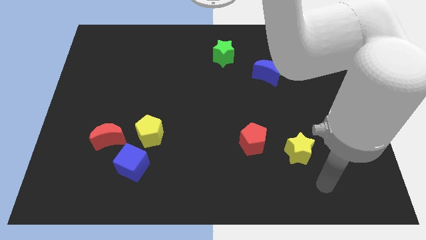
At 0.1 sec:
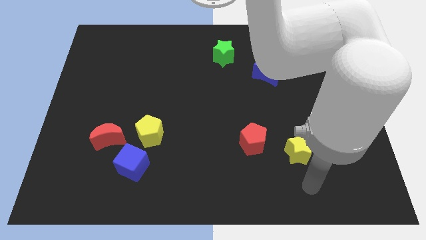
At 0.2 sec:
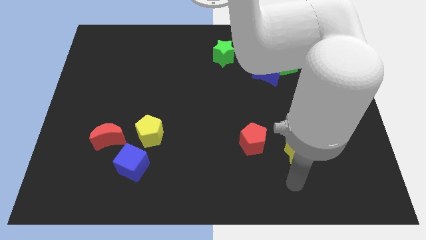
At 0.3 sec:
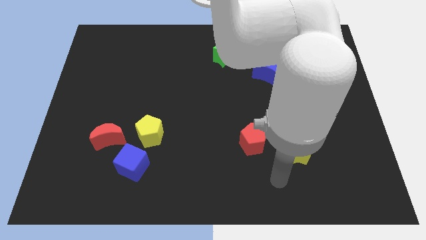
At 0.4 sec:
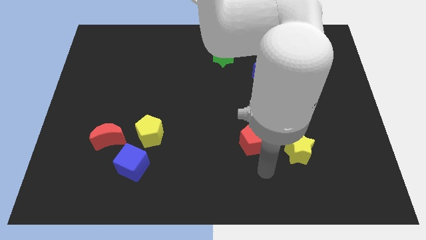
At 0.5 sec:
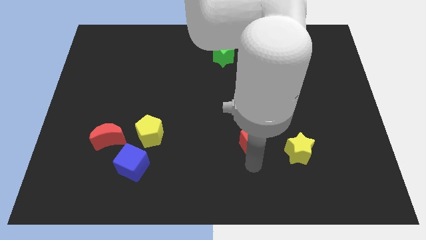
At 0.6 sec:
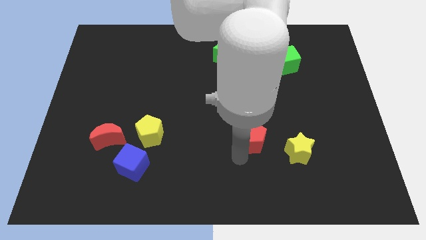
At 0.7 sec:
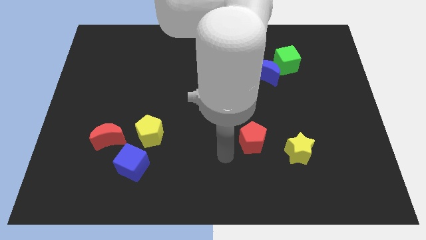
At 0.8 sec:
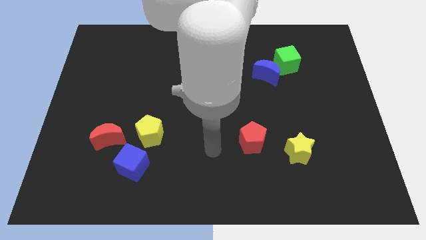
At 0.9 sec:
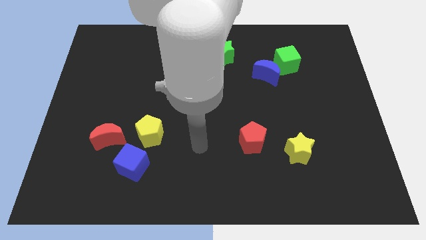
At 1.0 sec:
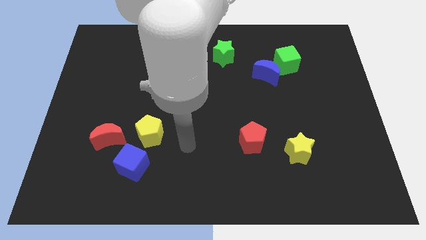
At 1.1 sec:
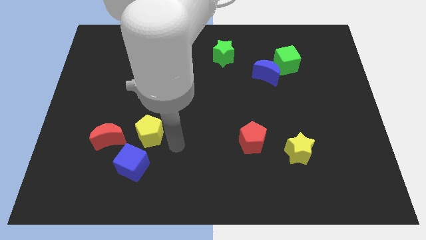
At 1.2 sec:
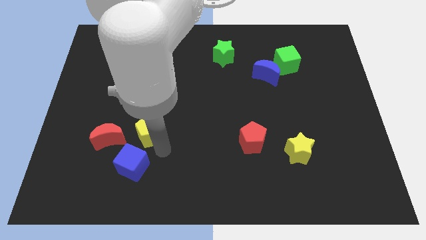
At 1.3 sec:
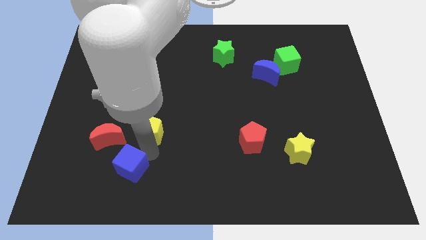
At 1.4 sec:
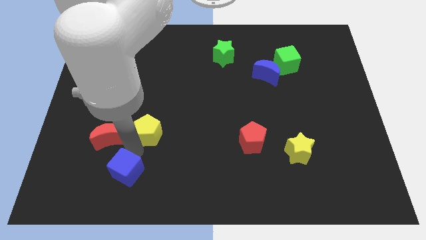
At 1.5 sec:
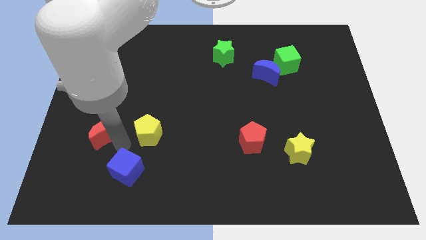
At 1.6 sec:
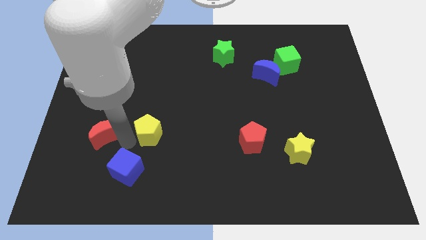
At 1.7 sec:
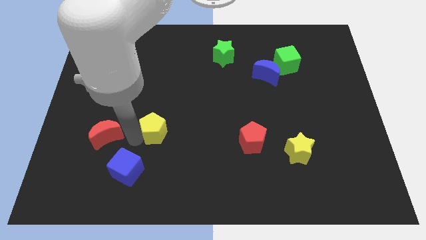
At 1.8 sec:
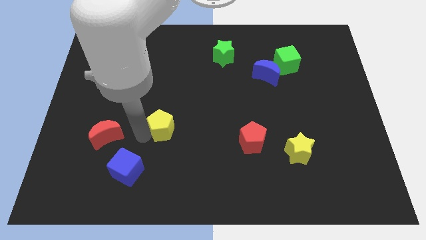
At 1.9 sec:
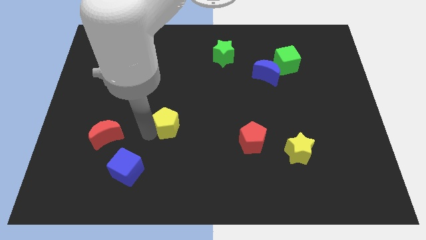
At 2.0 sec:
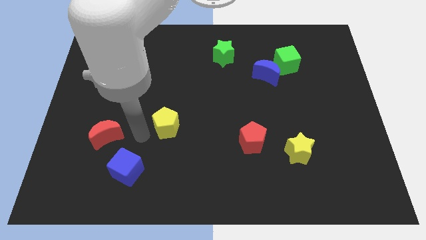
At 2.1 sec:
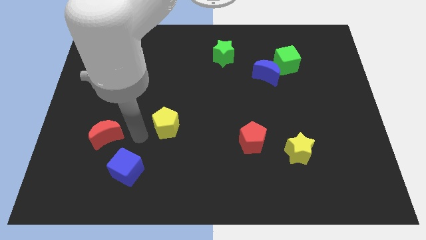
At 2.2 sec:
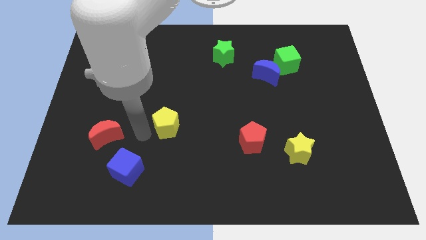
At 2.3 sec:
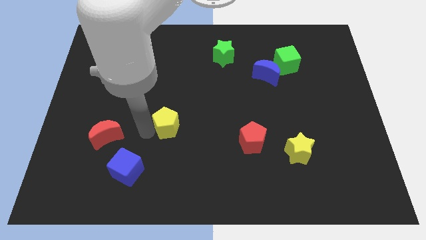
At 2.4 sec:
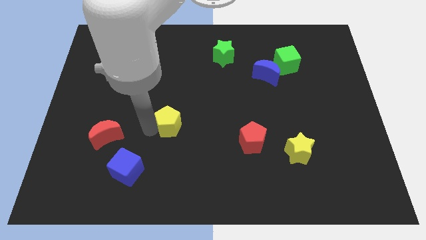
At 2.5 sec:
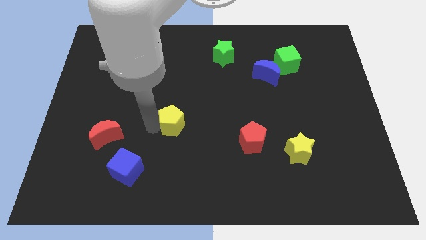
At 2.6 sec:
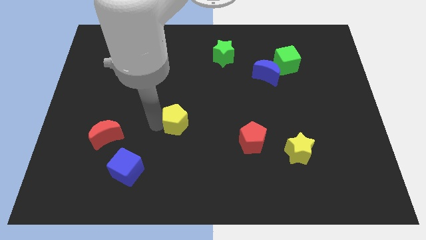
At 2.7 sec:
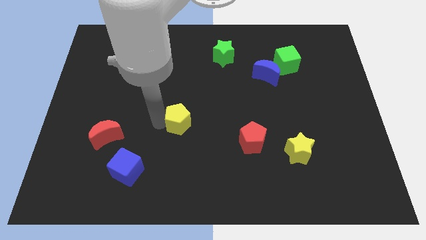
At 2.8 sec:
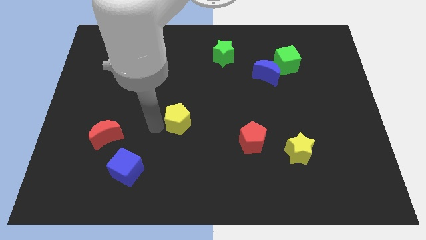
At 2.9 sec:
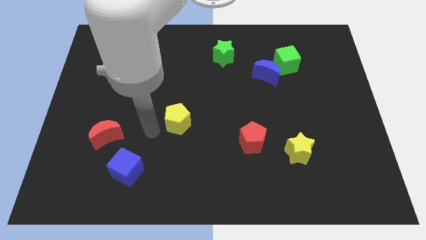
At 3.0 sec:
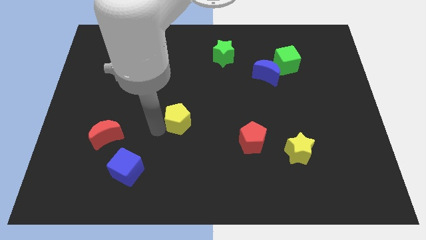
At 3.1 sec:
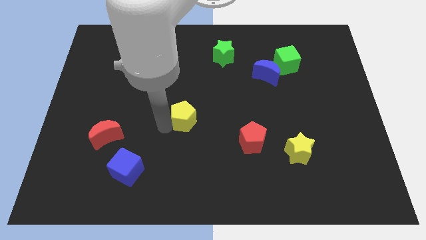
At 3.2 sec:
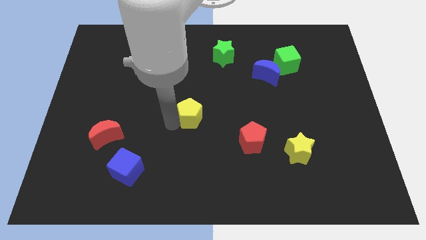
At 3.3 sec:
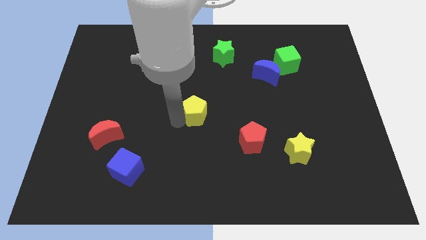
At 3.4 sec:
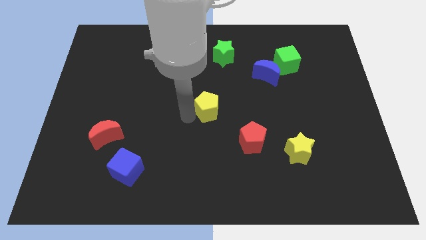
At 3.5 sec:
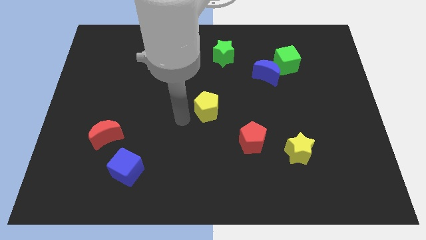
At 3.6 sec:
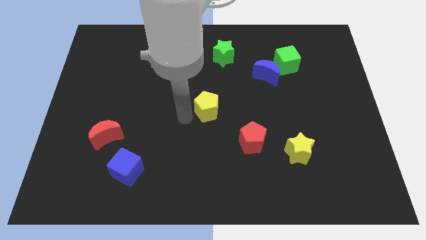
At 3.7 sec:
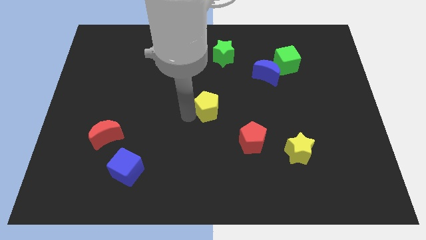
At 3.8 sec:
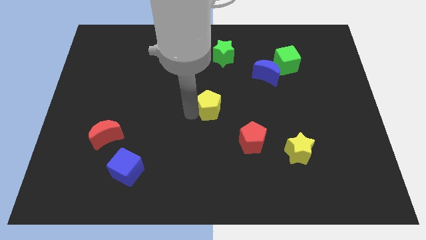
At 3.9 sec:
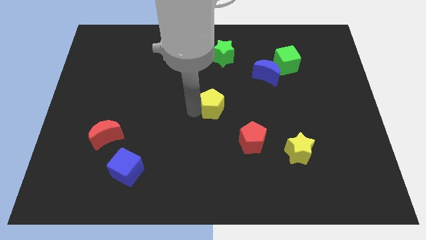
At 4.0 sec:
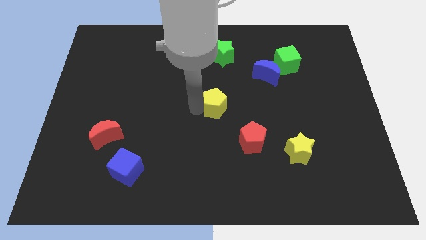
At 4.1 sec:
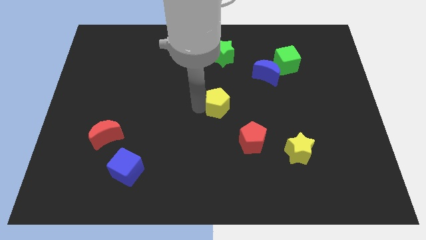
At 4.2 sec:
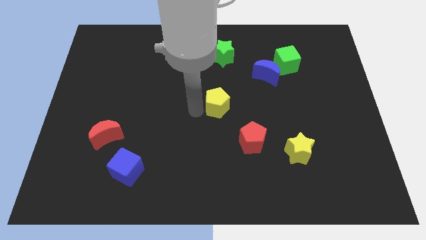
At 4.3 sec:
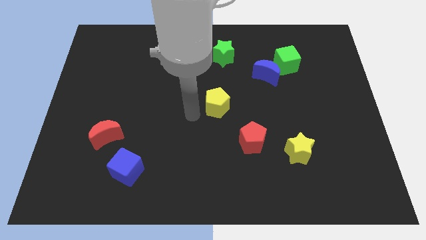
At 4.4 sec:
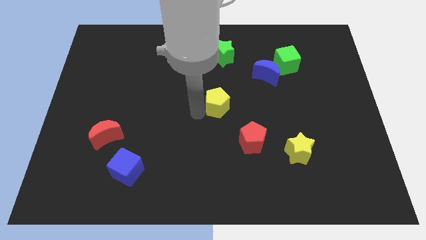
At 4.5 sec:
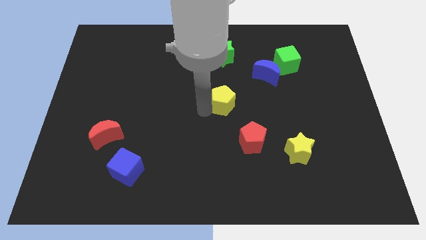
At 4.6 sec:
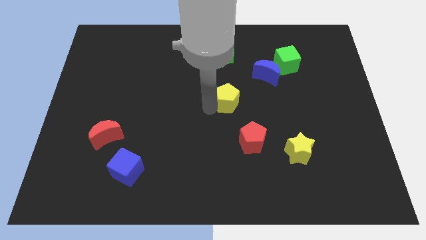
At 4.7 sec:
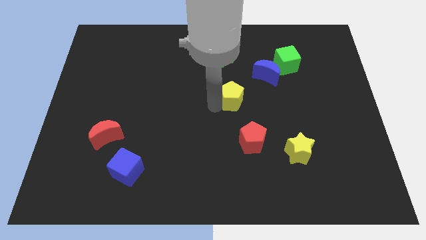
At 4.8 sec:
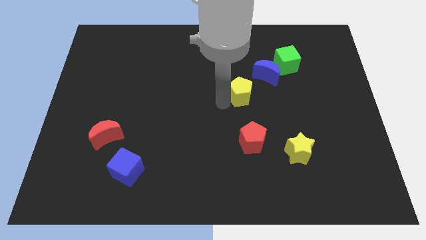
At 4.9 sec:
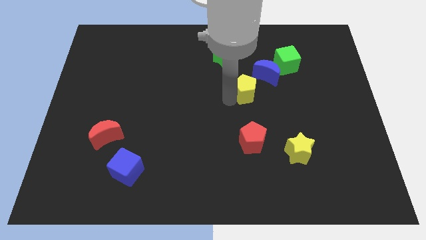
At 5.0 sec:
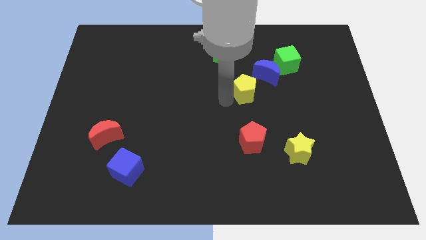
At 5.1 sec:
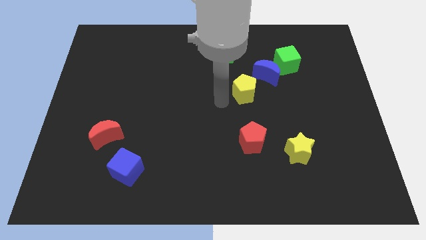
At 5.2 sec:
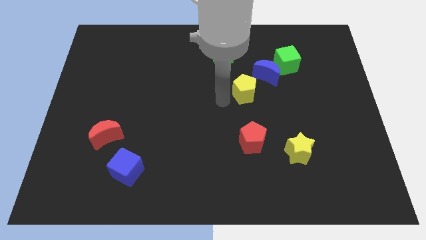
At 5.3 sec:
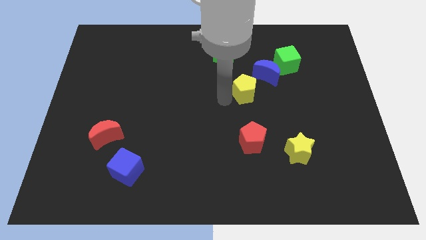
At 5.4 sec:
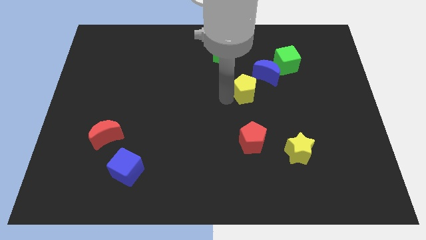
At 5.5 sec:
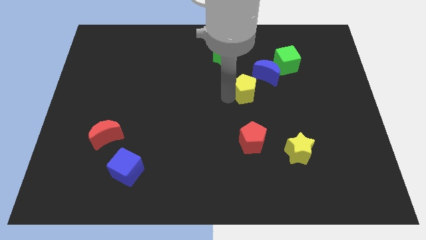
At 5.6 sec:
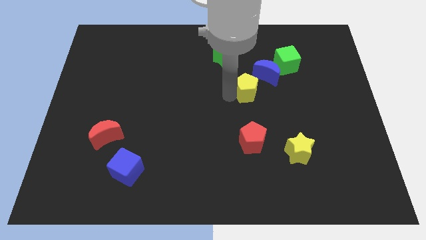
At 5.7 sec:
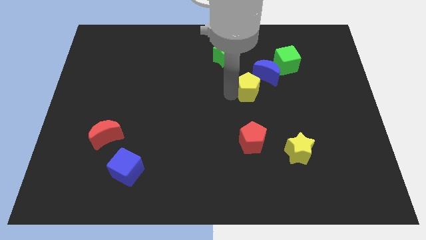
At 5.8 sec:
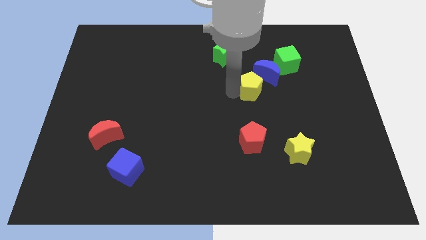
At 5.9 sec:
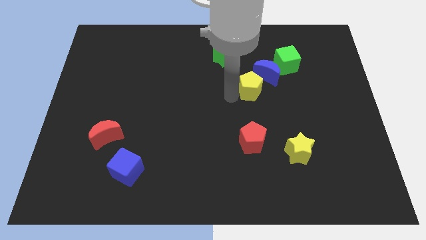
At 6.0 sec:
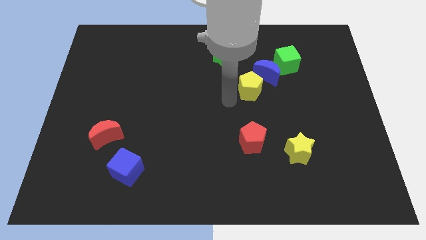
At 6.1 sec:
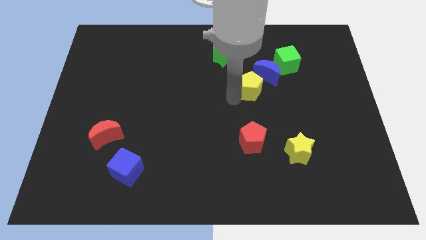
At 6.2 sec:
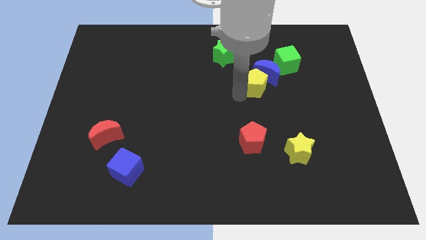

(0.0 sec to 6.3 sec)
put the yellow pentagon to the bottom left side of the green cube

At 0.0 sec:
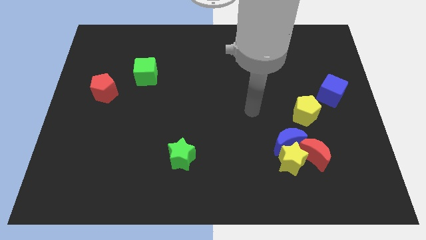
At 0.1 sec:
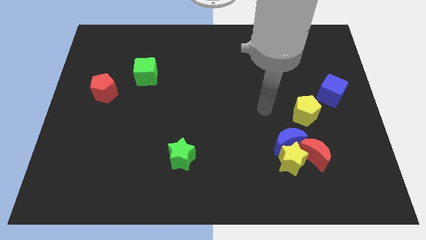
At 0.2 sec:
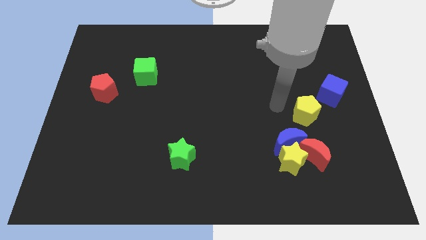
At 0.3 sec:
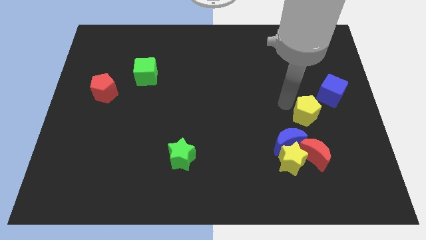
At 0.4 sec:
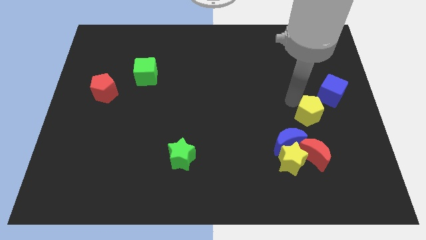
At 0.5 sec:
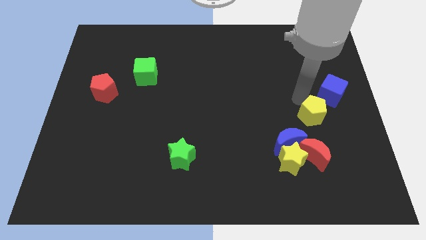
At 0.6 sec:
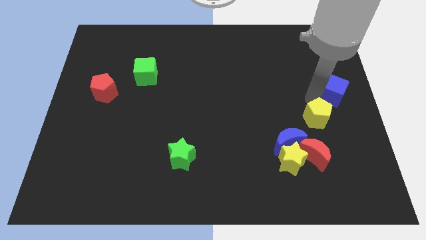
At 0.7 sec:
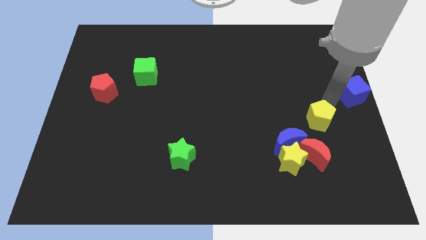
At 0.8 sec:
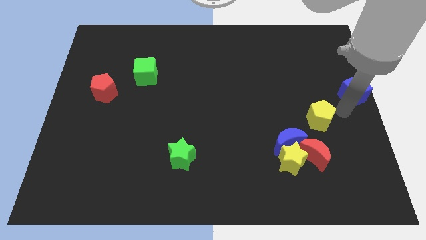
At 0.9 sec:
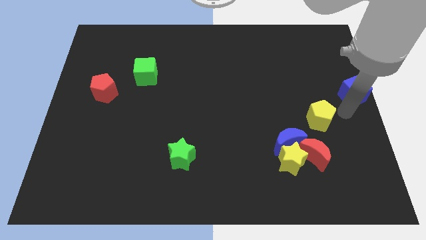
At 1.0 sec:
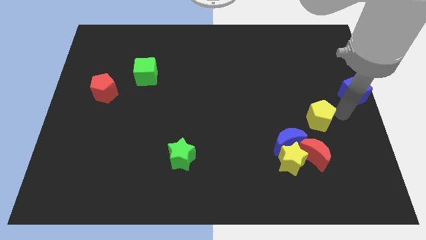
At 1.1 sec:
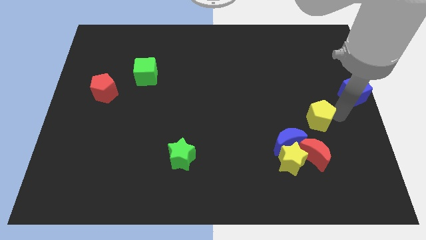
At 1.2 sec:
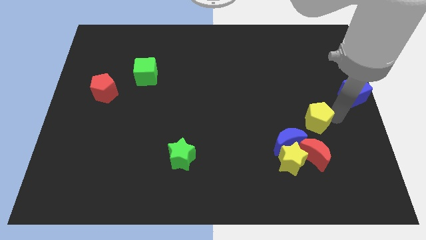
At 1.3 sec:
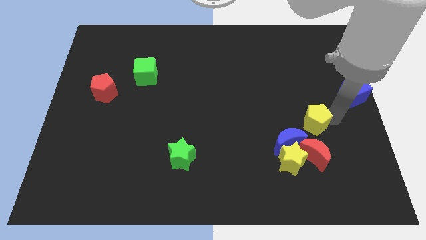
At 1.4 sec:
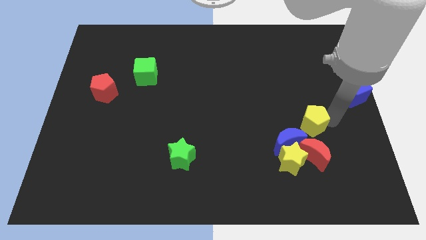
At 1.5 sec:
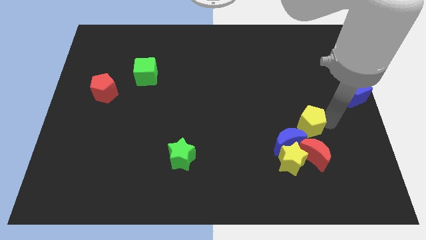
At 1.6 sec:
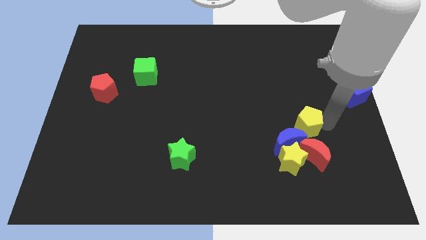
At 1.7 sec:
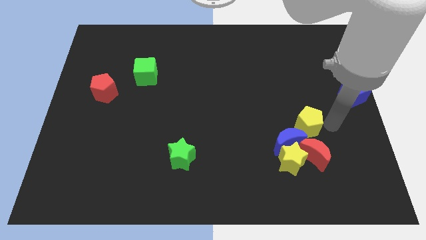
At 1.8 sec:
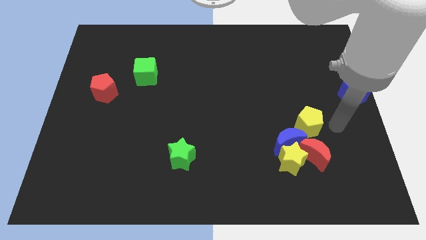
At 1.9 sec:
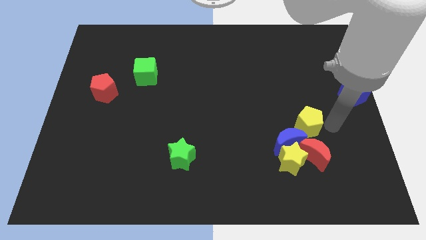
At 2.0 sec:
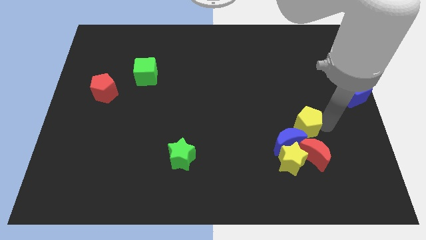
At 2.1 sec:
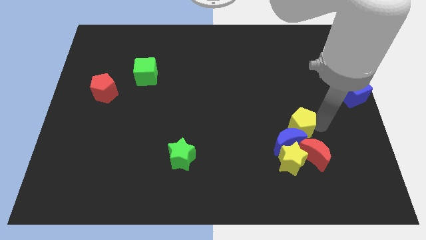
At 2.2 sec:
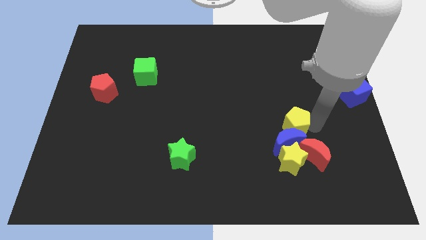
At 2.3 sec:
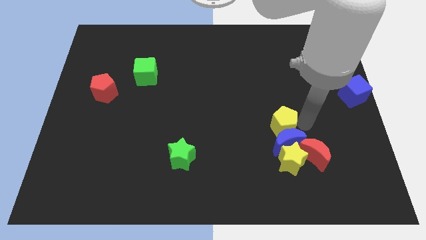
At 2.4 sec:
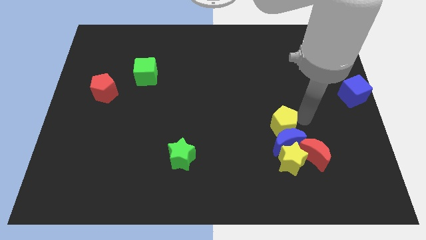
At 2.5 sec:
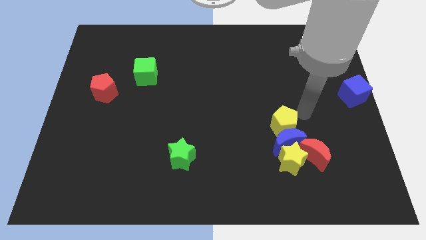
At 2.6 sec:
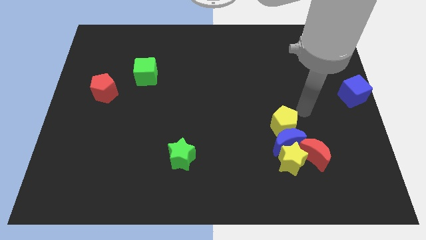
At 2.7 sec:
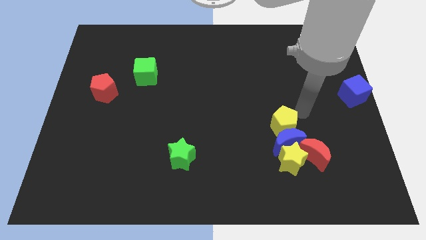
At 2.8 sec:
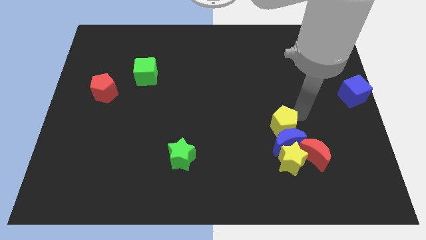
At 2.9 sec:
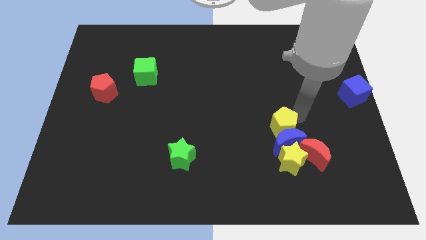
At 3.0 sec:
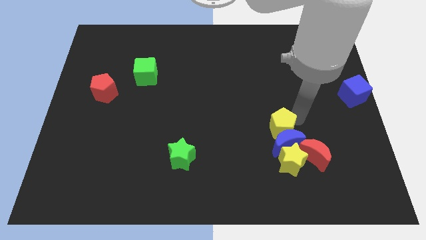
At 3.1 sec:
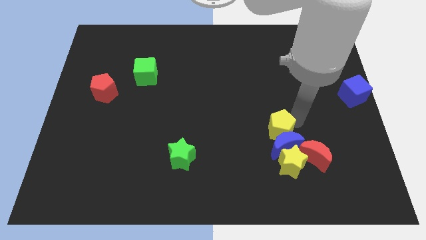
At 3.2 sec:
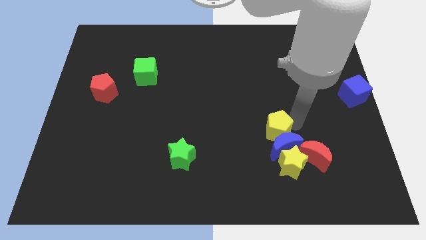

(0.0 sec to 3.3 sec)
push the yellow pentagon to the top left of the yellow star
